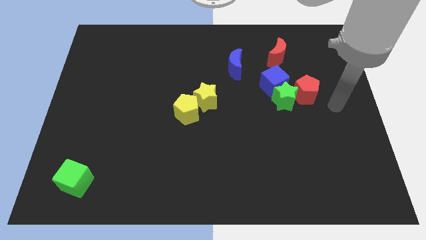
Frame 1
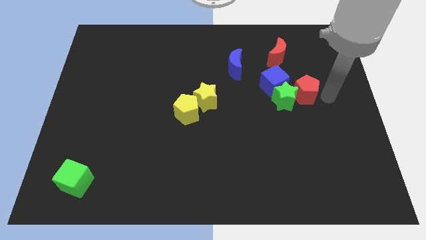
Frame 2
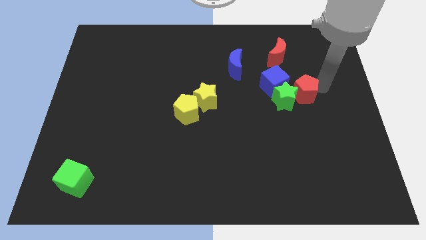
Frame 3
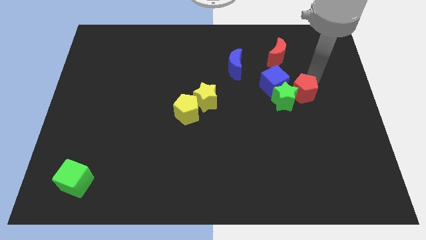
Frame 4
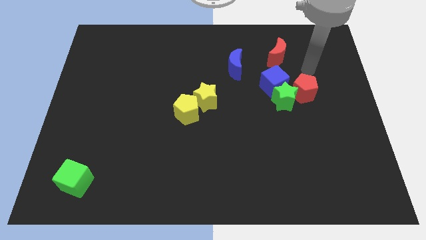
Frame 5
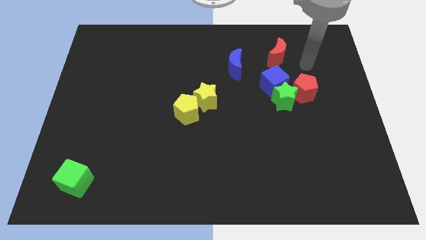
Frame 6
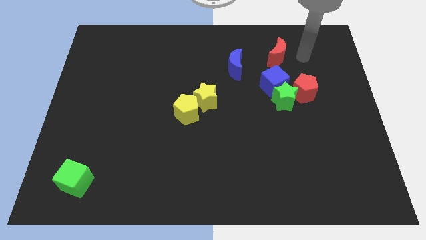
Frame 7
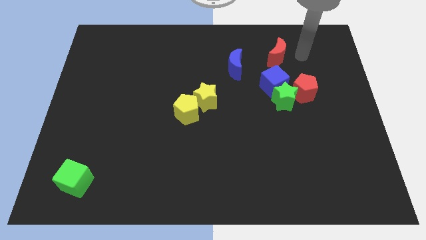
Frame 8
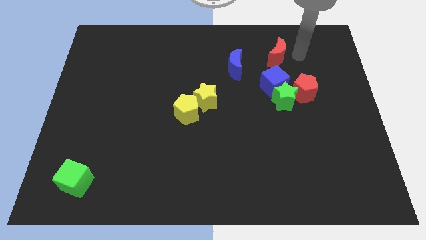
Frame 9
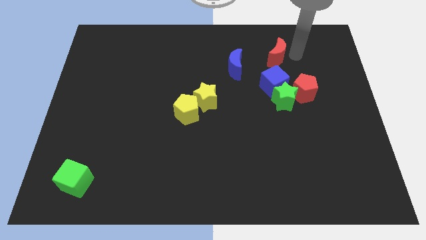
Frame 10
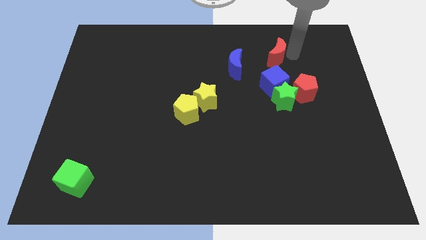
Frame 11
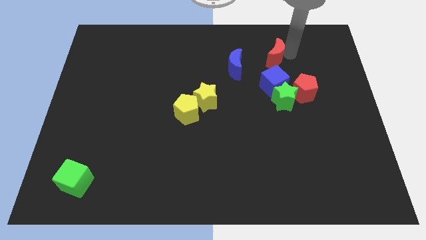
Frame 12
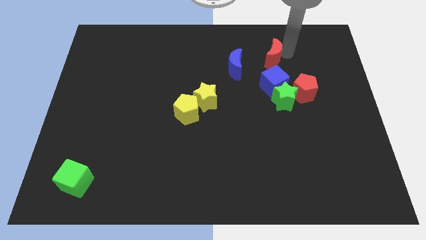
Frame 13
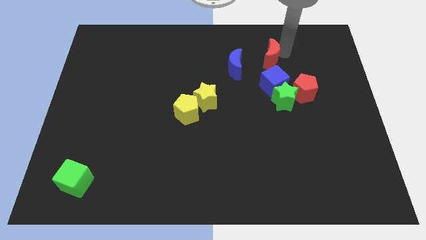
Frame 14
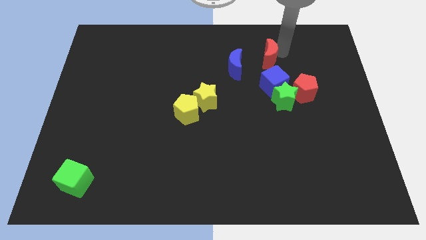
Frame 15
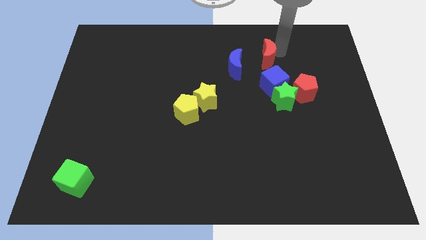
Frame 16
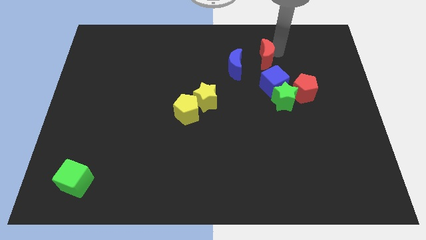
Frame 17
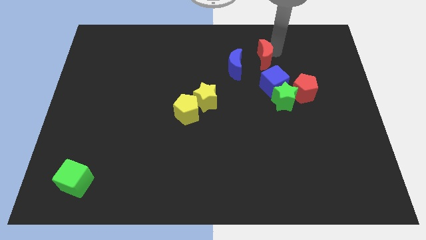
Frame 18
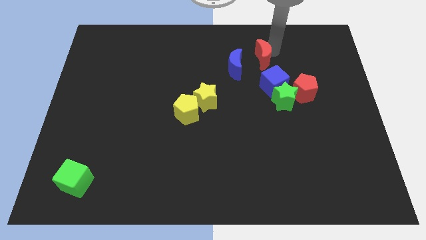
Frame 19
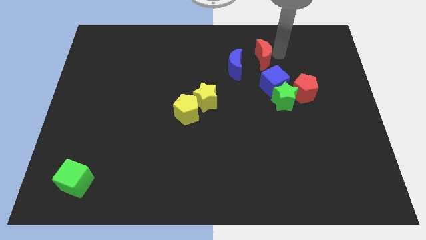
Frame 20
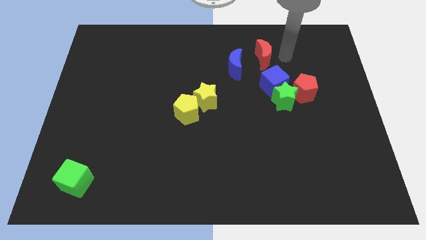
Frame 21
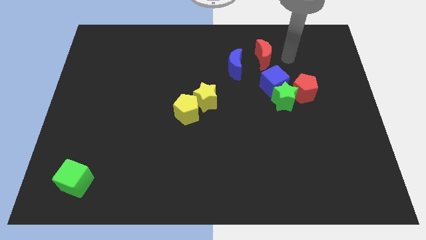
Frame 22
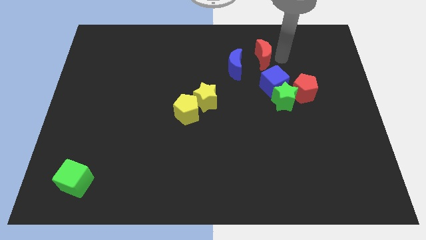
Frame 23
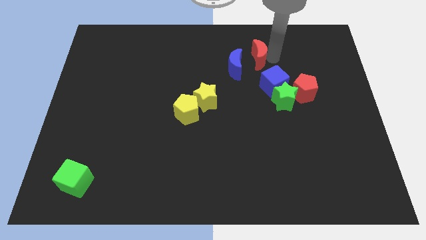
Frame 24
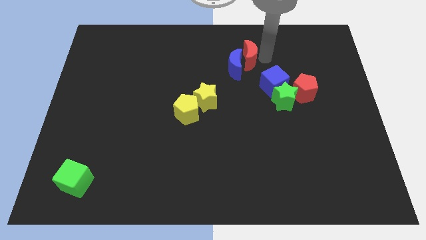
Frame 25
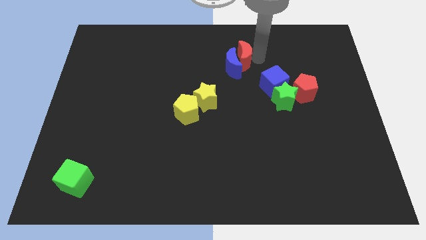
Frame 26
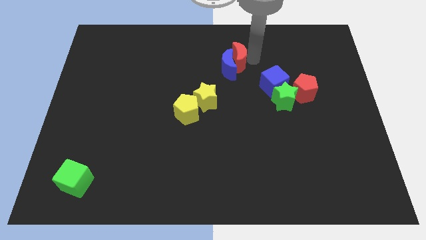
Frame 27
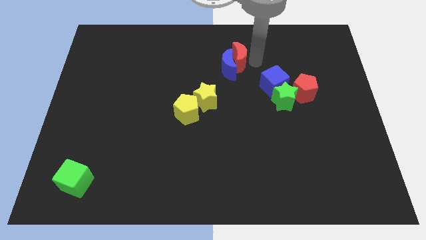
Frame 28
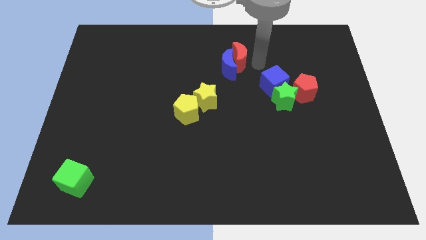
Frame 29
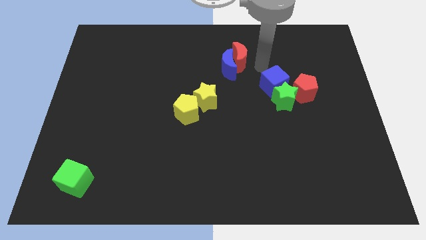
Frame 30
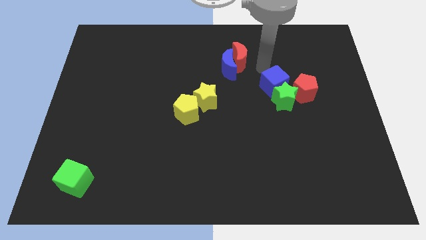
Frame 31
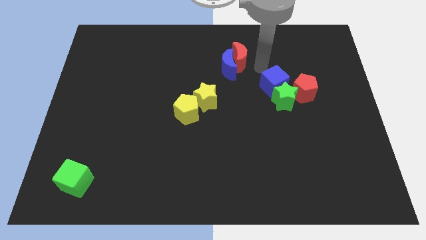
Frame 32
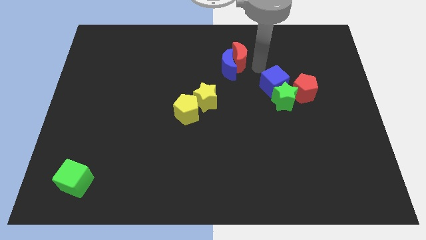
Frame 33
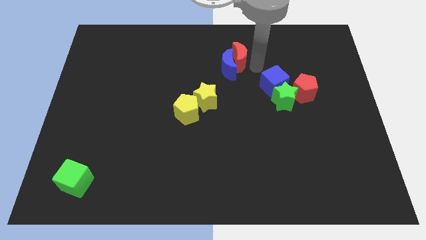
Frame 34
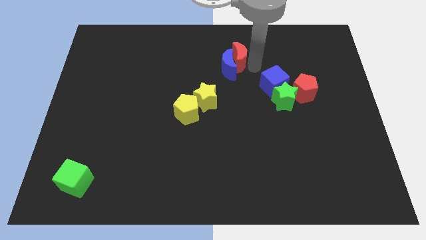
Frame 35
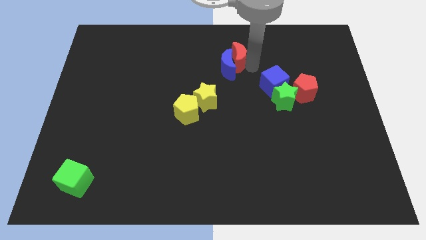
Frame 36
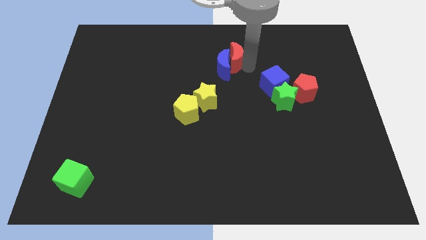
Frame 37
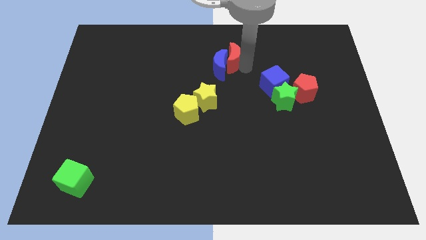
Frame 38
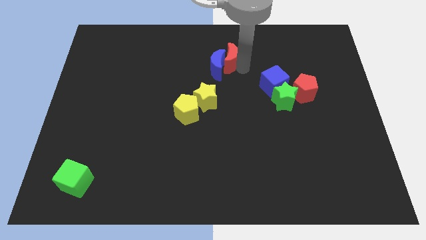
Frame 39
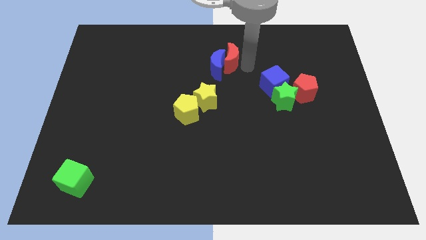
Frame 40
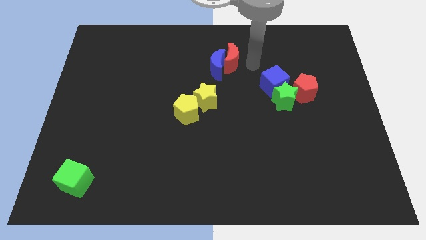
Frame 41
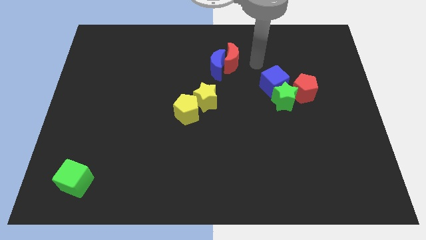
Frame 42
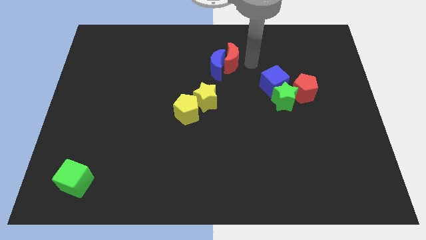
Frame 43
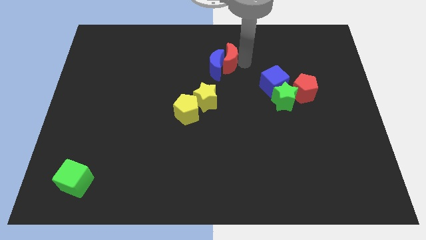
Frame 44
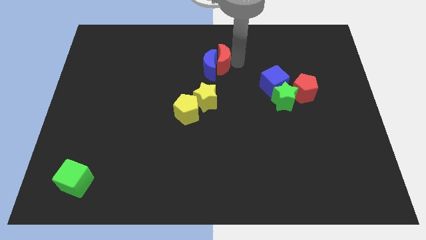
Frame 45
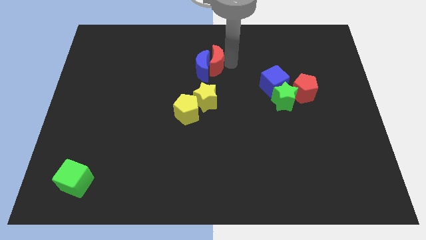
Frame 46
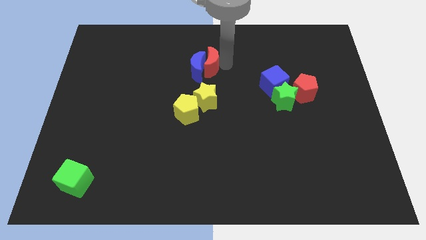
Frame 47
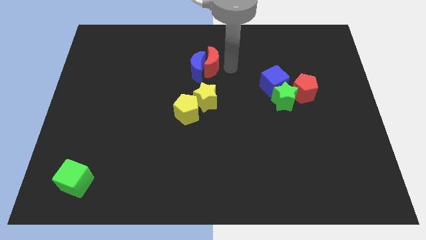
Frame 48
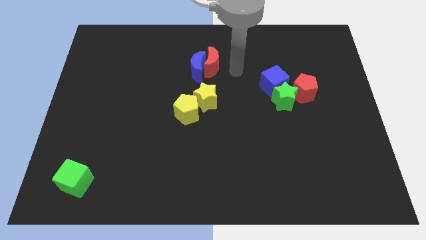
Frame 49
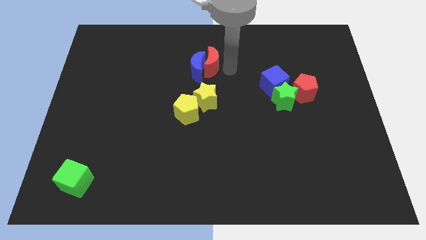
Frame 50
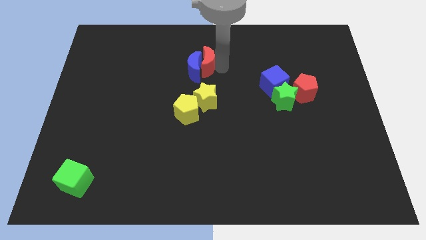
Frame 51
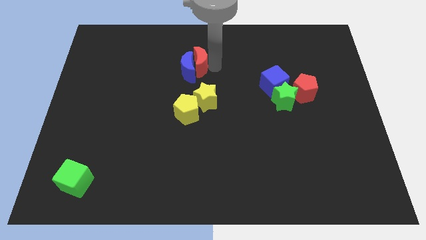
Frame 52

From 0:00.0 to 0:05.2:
slide the red moon left

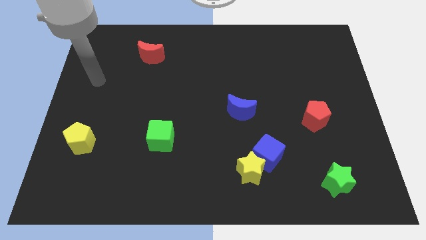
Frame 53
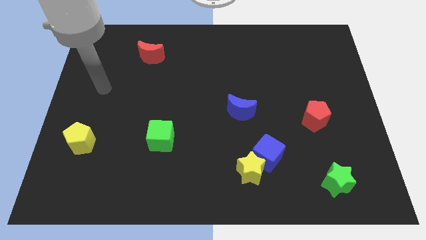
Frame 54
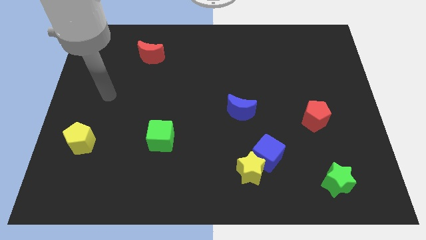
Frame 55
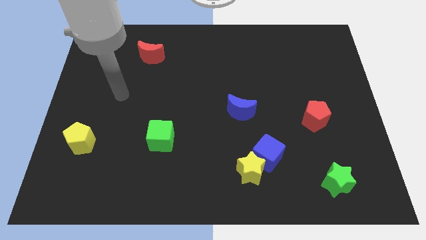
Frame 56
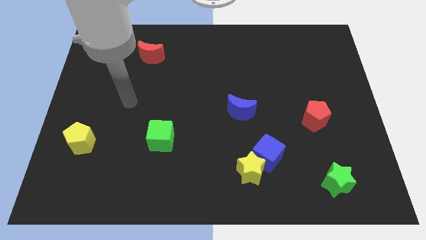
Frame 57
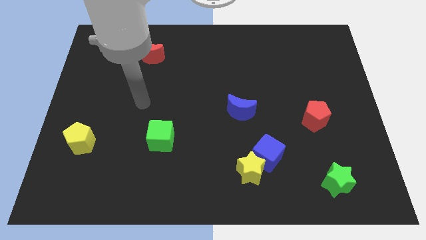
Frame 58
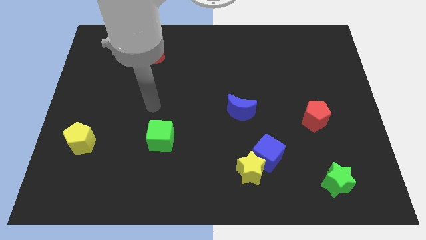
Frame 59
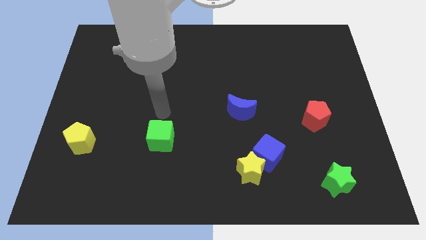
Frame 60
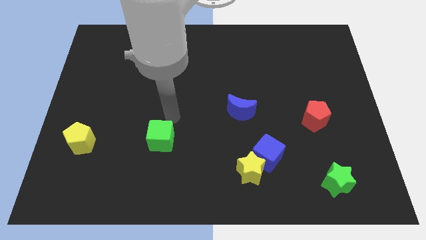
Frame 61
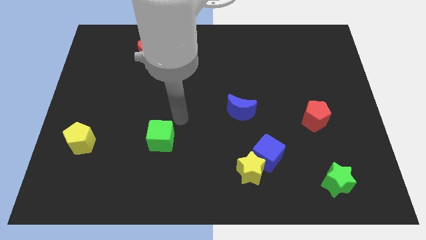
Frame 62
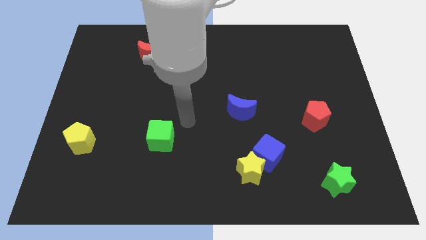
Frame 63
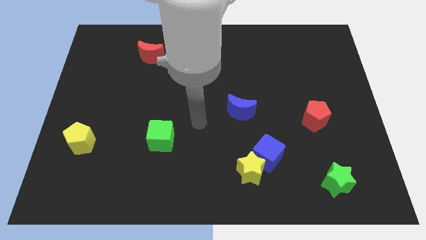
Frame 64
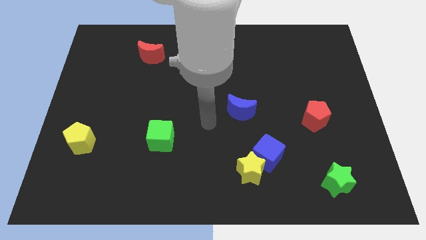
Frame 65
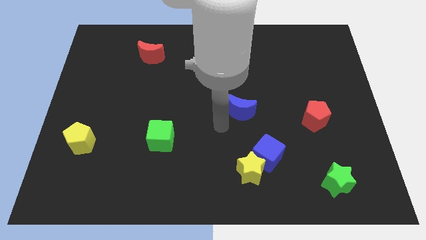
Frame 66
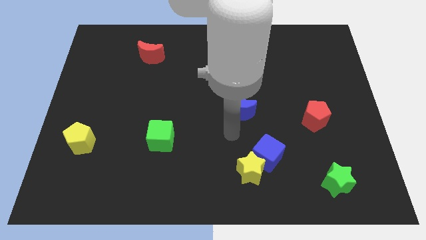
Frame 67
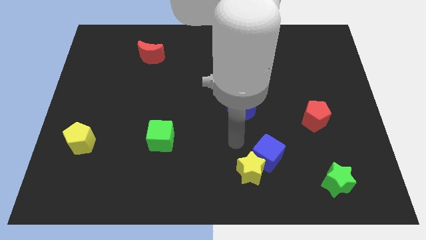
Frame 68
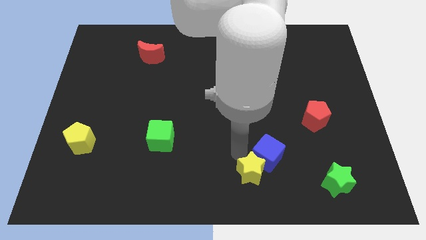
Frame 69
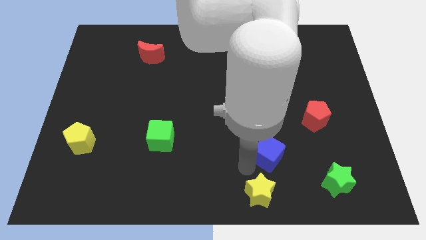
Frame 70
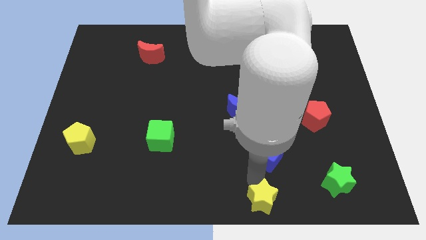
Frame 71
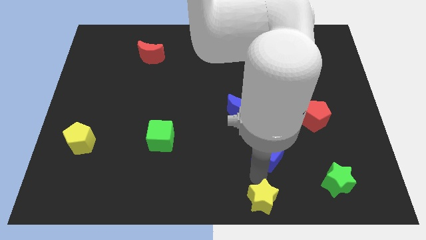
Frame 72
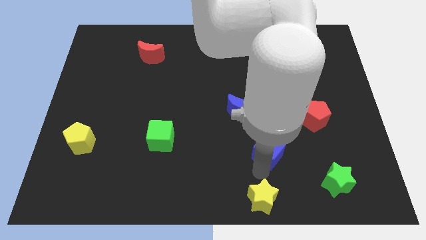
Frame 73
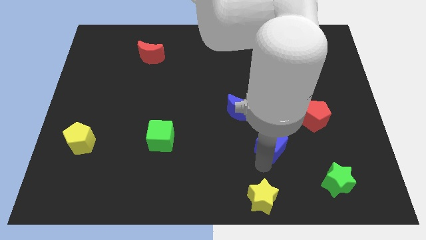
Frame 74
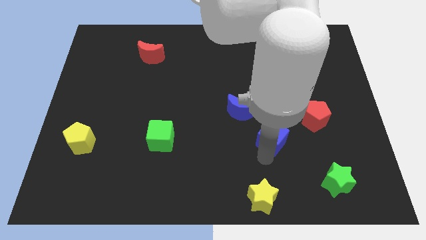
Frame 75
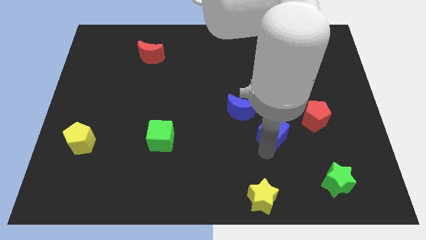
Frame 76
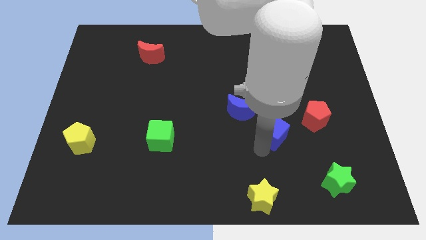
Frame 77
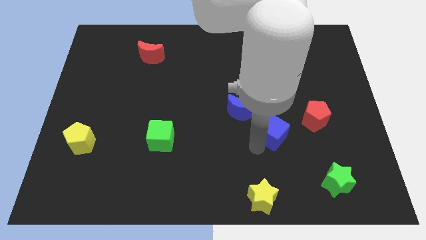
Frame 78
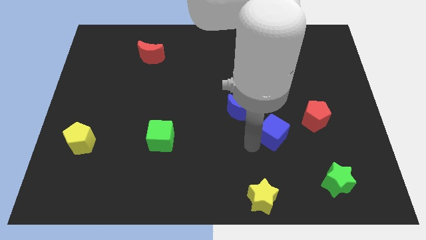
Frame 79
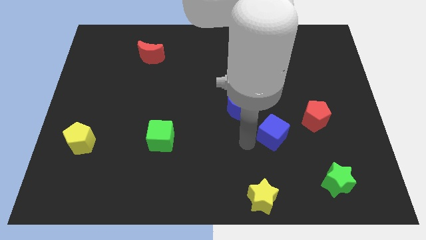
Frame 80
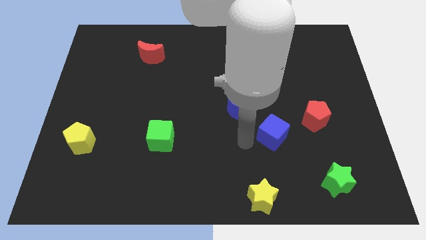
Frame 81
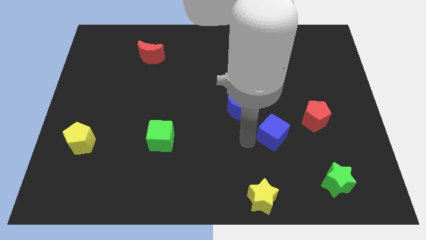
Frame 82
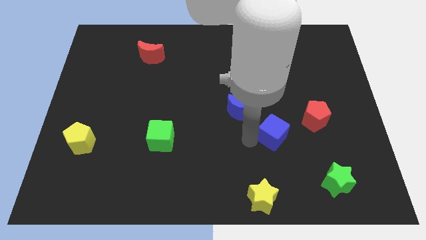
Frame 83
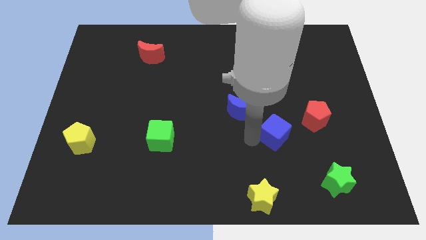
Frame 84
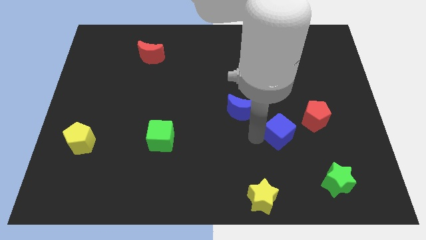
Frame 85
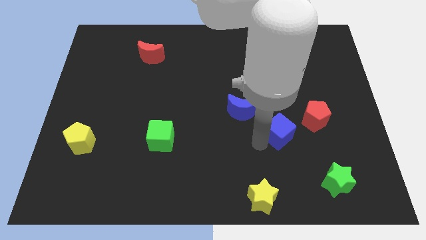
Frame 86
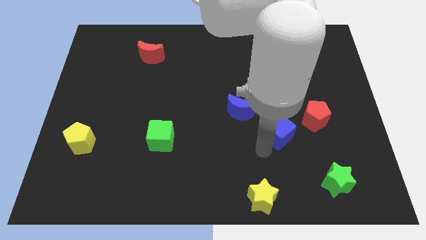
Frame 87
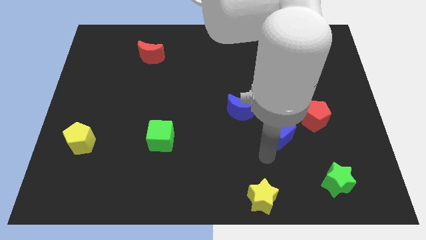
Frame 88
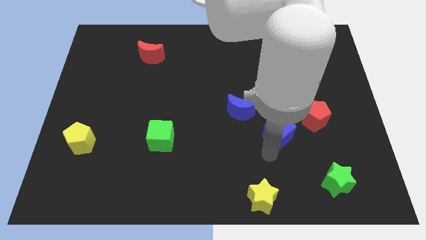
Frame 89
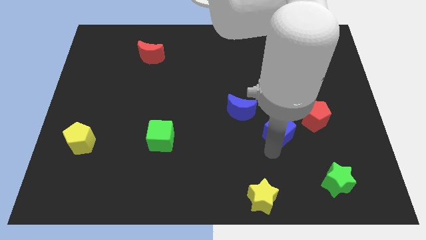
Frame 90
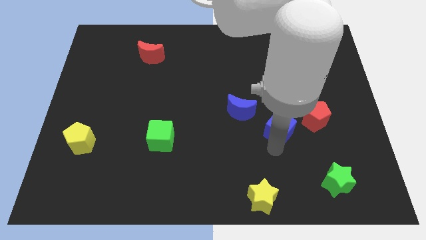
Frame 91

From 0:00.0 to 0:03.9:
slightly slide the blue cube up and to the right diagonally
